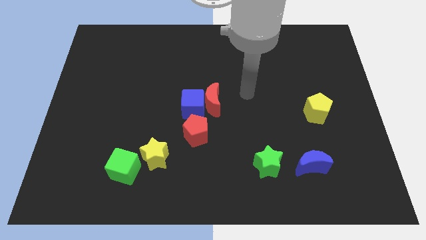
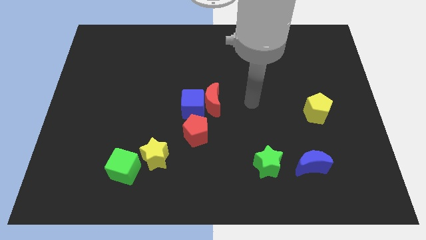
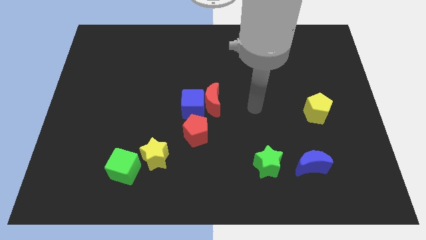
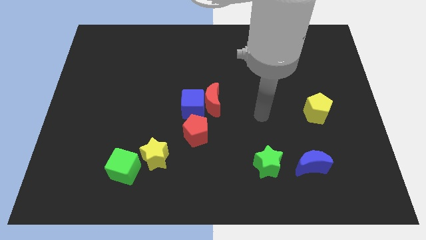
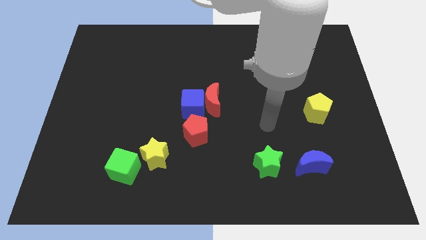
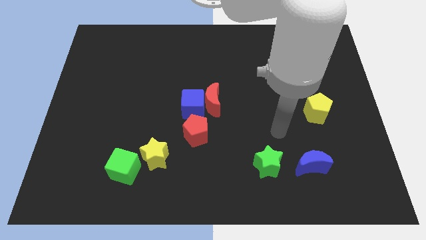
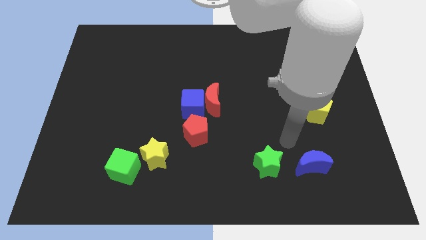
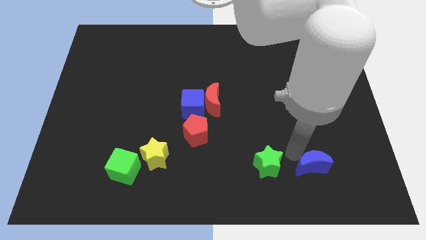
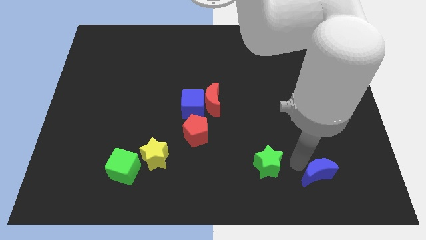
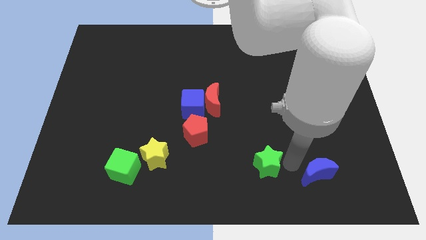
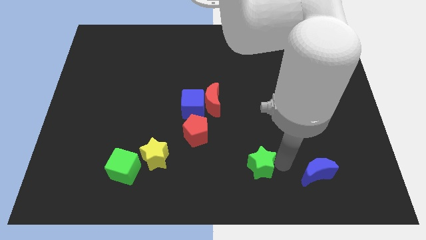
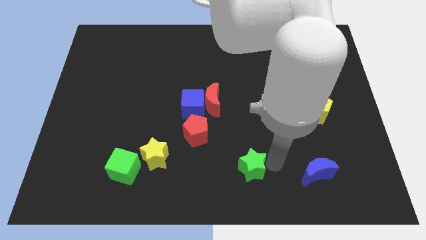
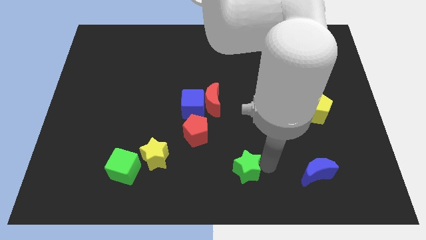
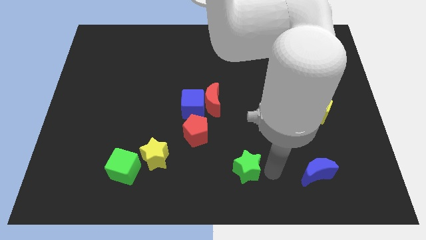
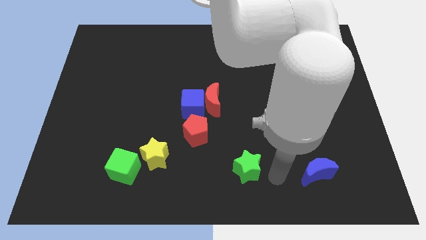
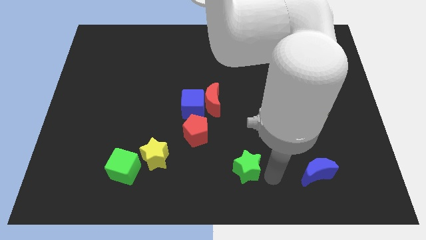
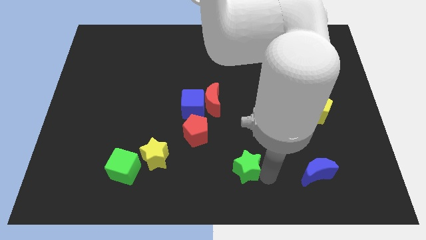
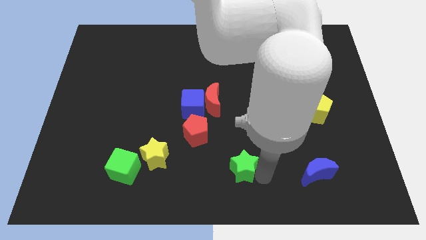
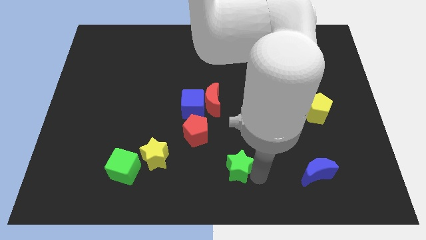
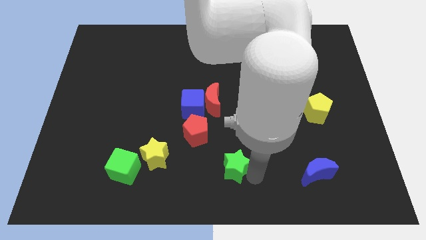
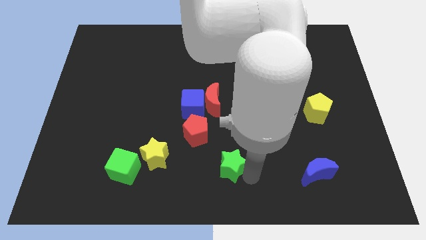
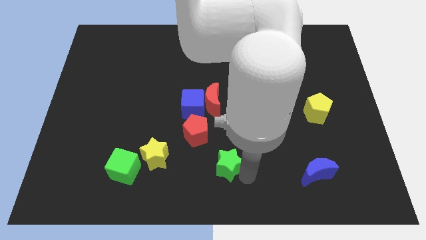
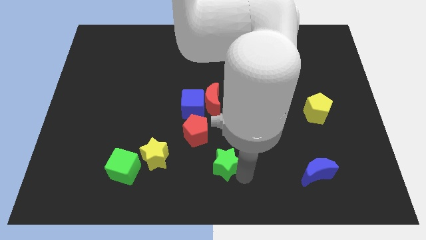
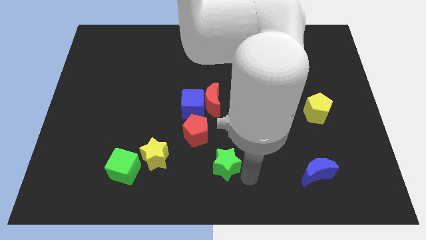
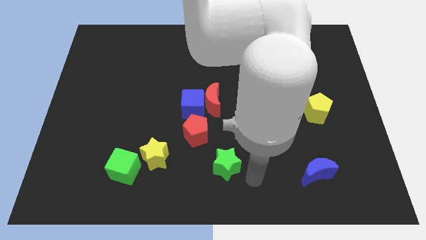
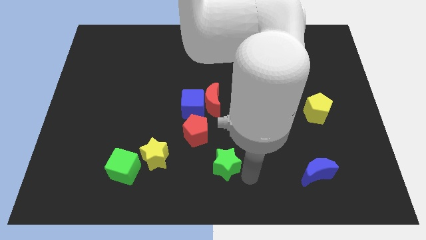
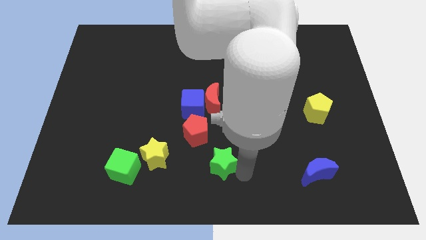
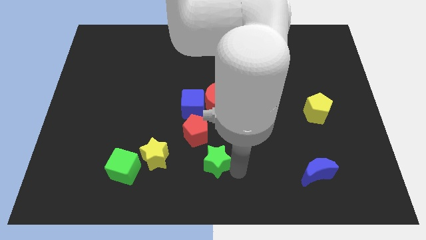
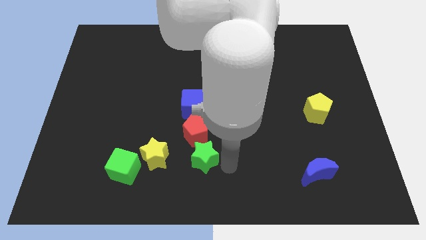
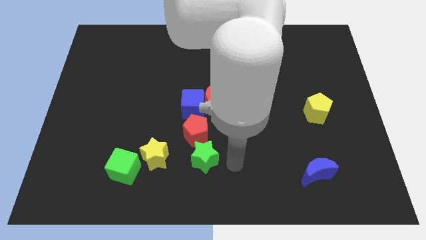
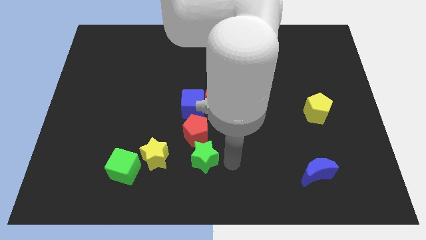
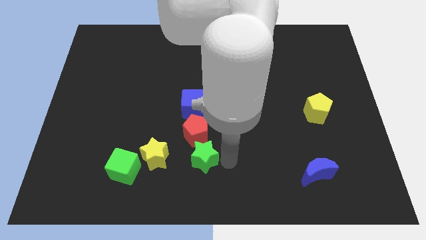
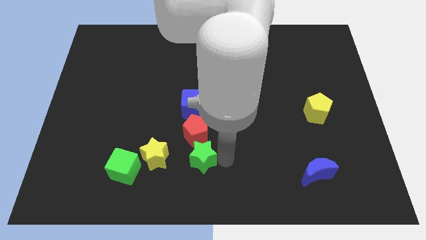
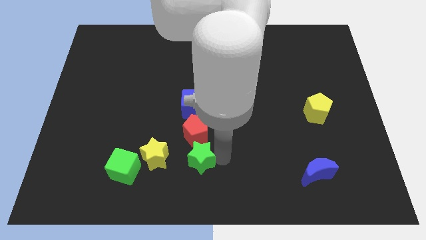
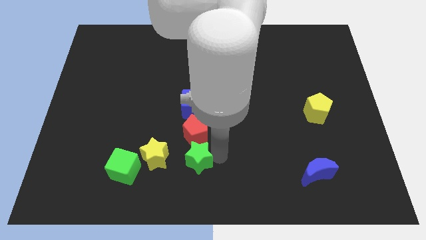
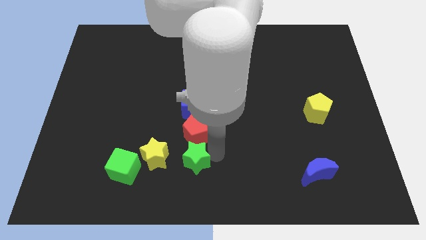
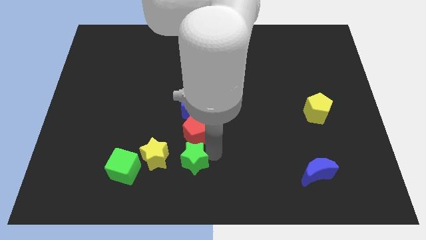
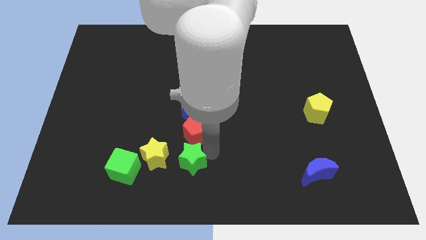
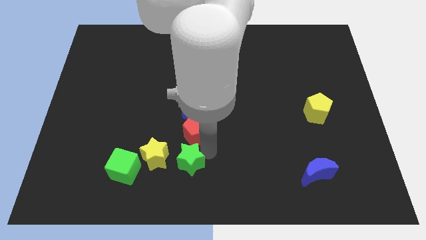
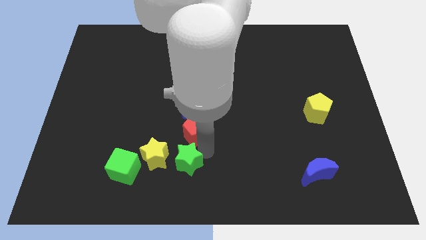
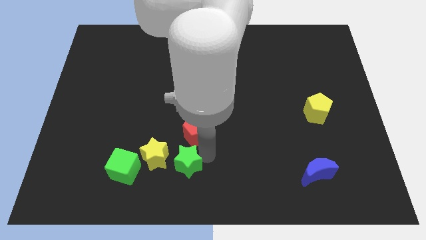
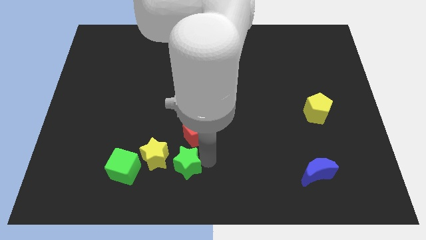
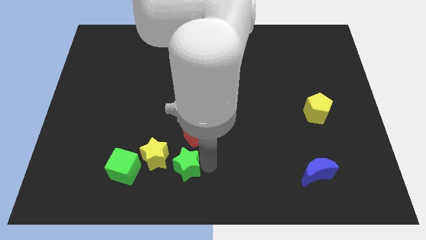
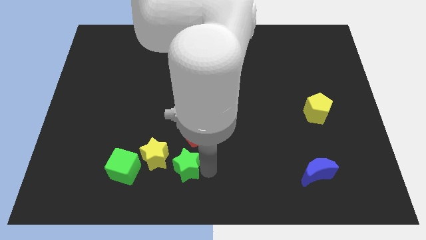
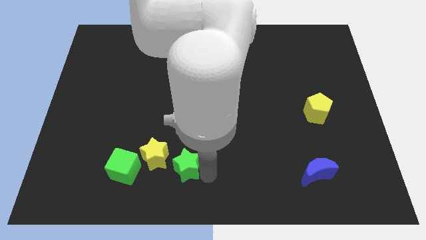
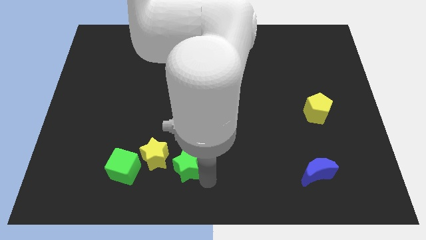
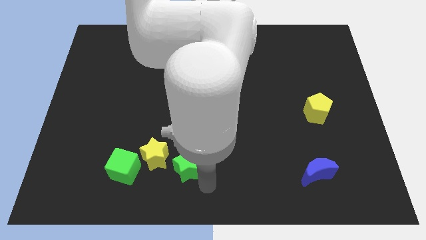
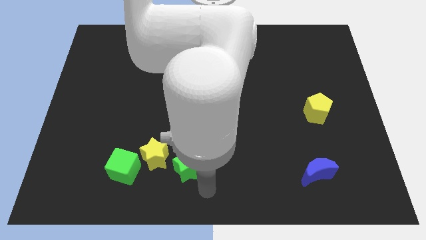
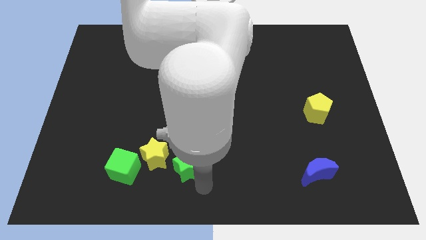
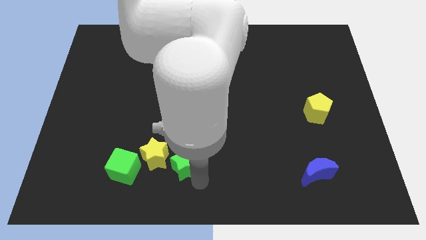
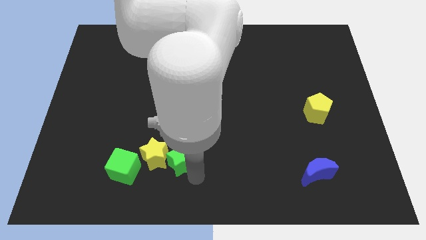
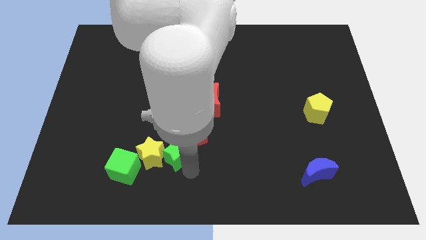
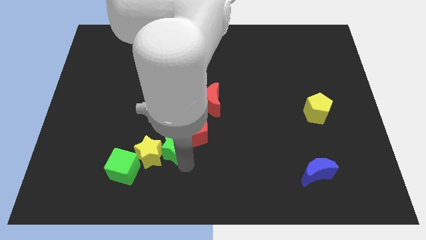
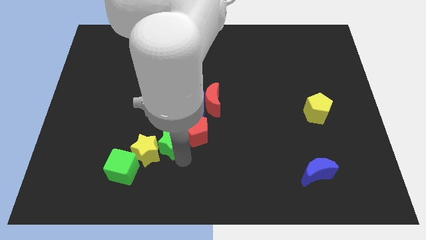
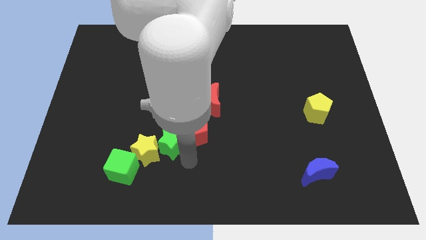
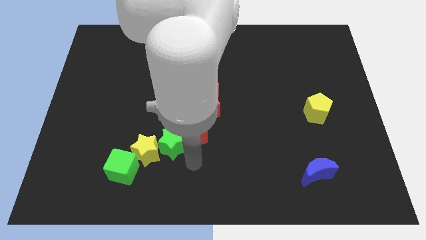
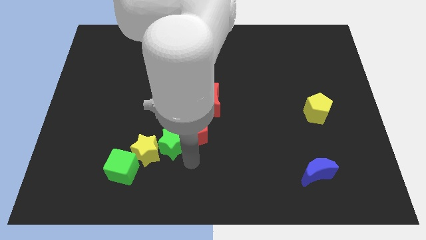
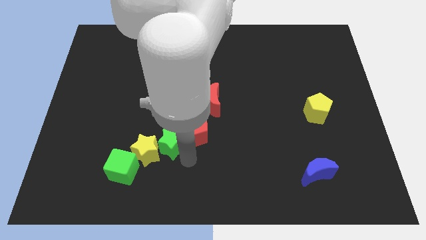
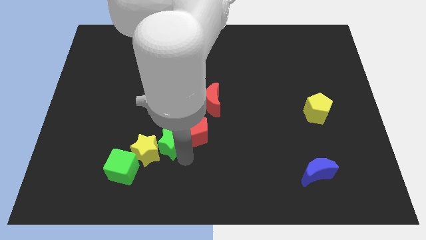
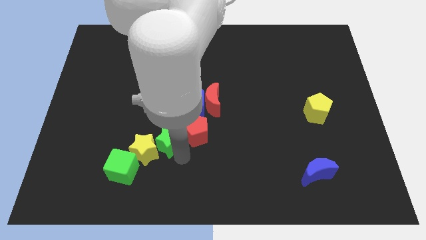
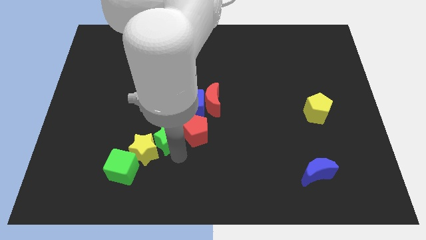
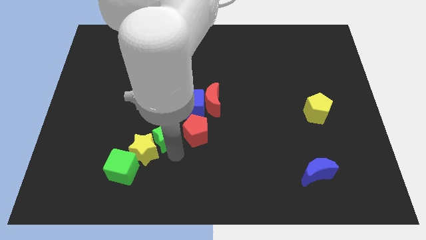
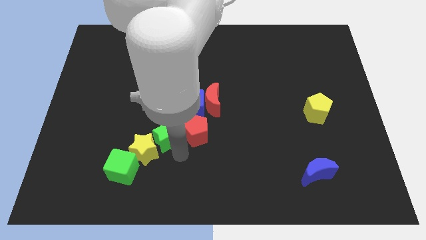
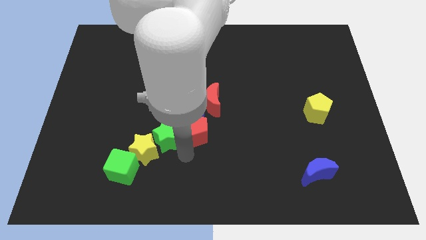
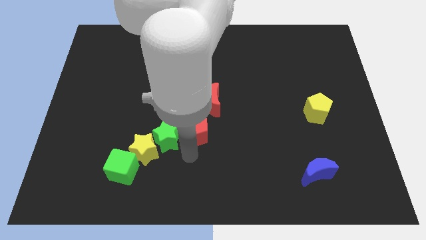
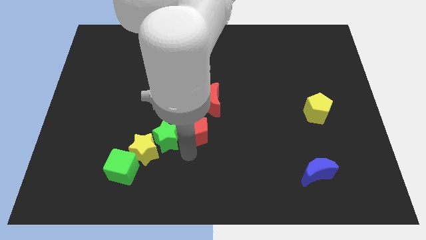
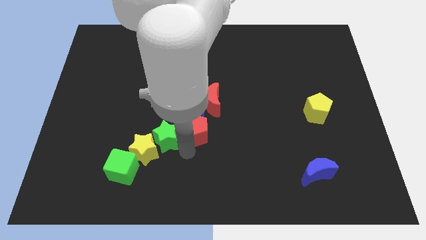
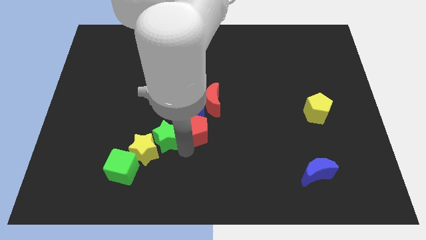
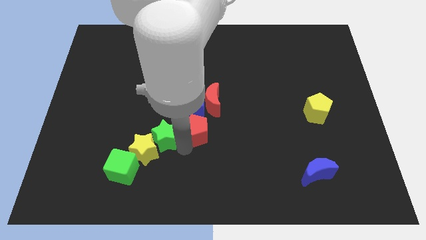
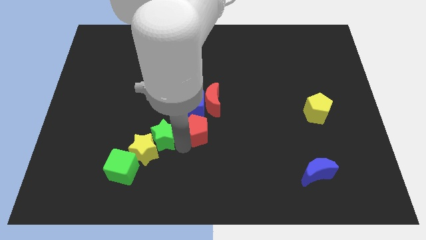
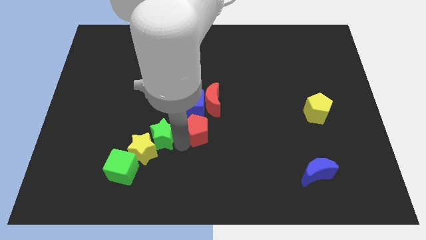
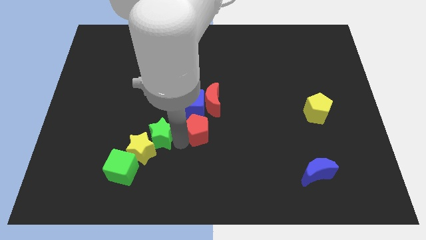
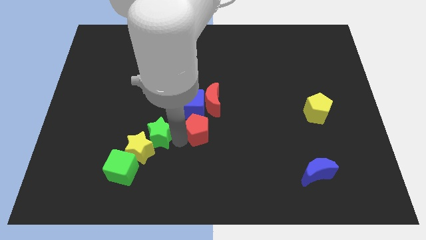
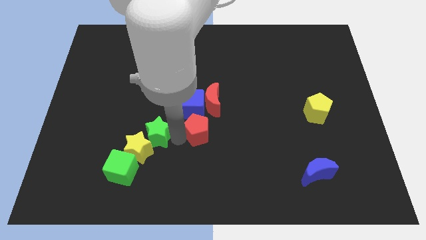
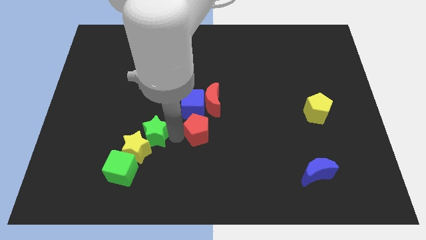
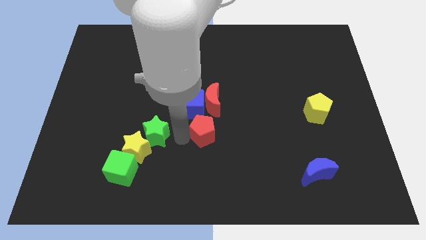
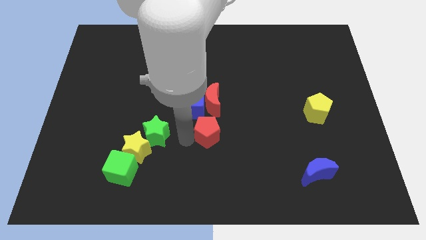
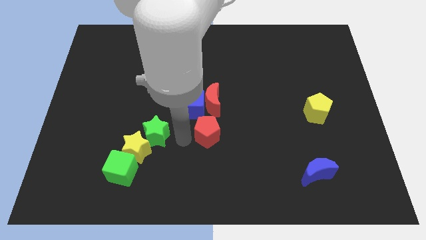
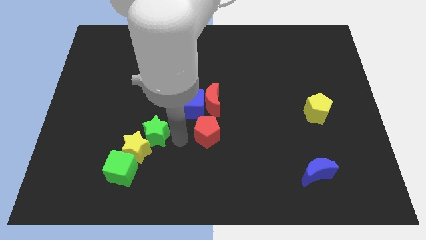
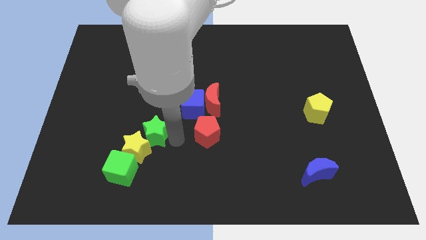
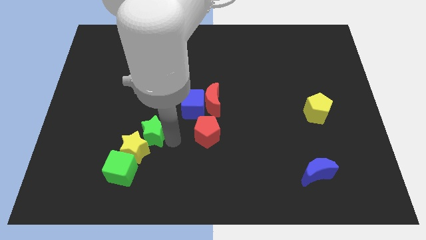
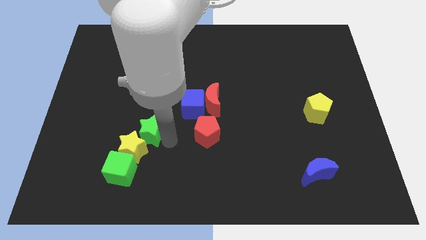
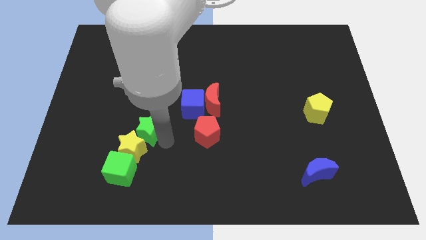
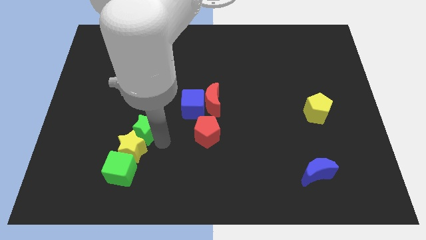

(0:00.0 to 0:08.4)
put the green star to the top side of the green cube

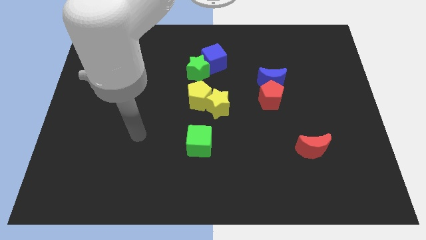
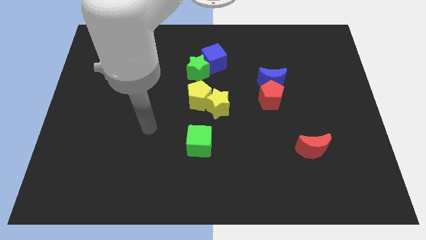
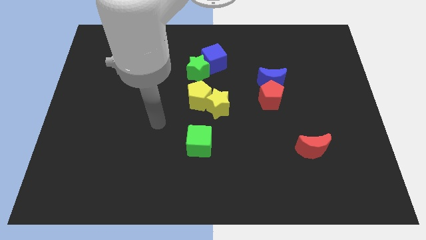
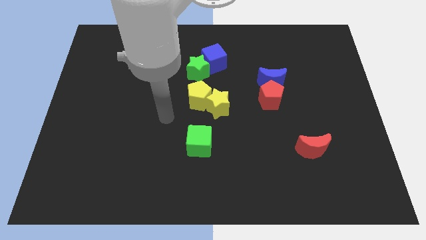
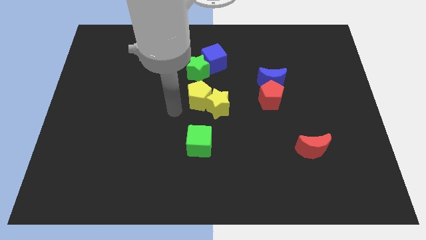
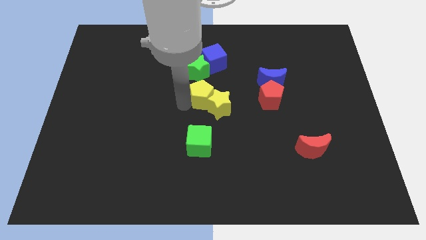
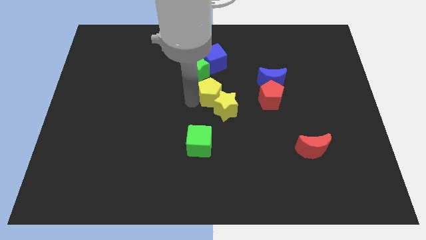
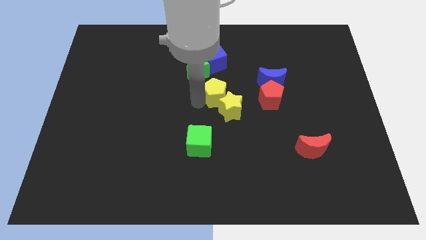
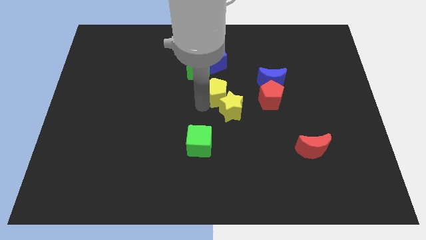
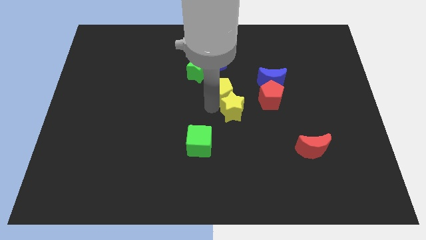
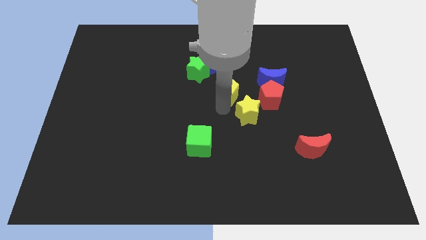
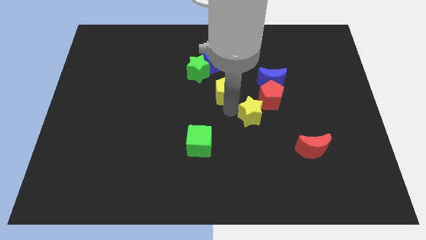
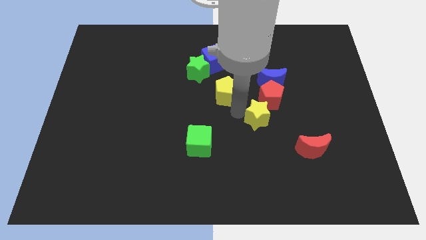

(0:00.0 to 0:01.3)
slide the yellow star to the bottom of the blue moon
